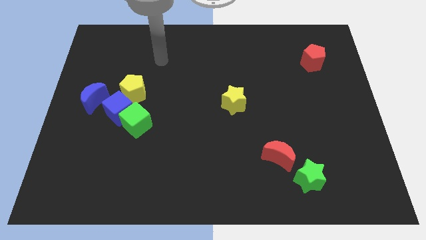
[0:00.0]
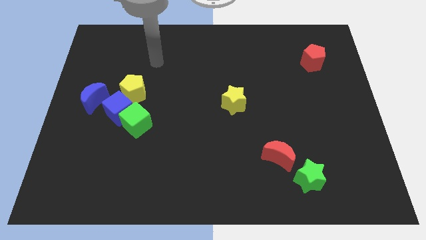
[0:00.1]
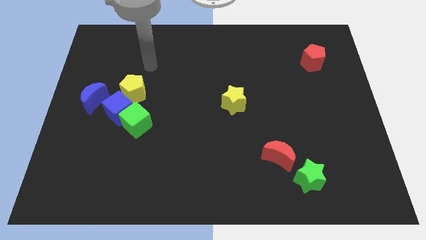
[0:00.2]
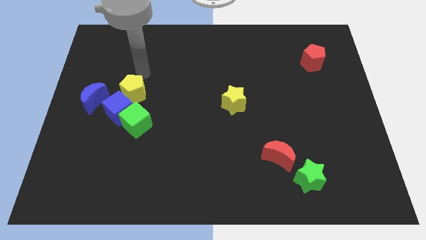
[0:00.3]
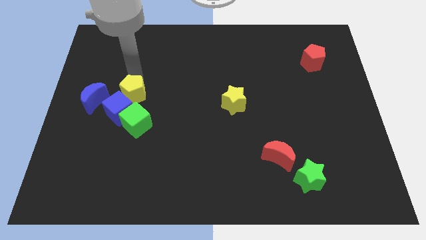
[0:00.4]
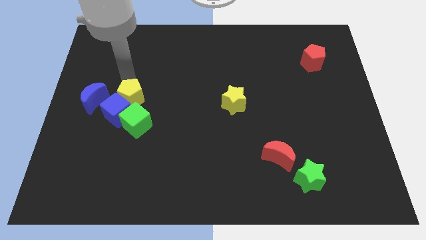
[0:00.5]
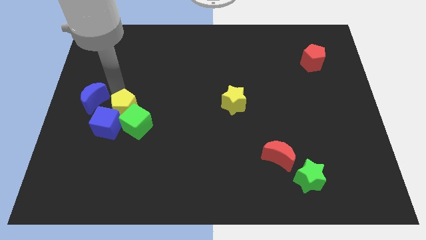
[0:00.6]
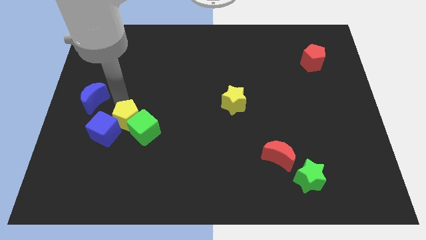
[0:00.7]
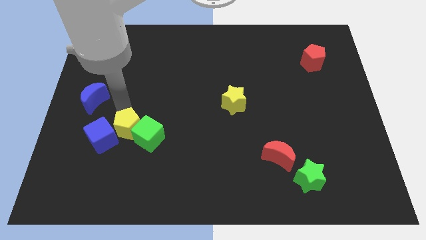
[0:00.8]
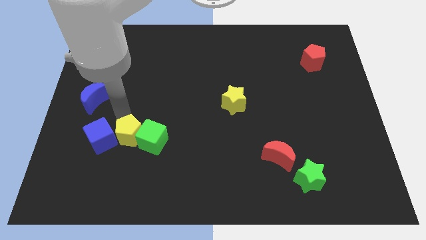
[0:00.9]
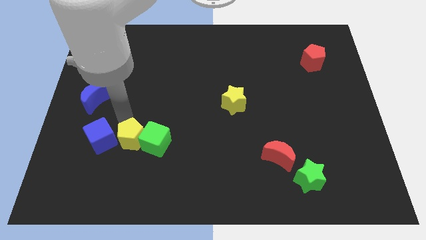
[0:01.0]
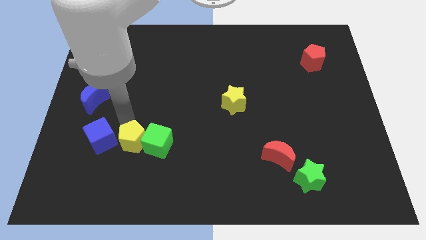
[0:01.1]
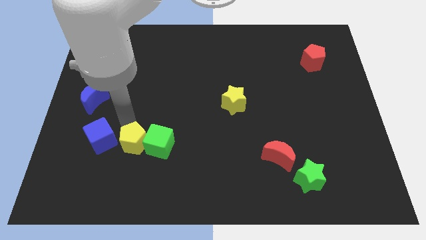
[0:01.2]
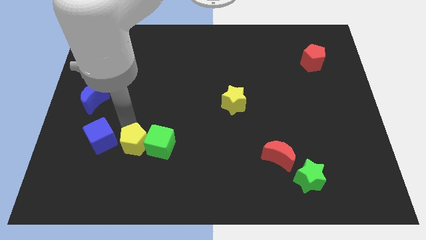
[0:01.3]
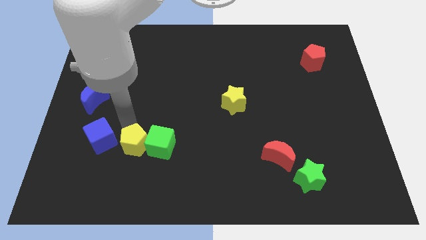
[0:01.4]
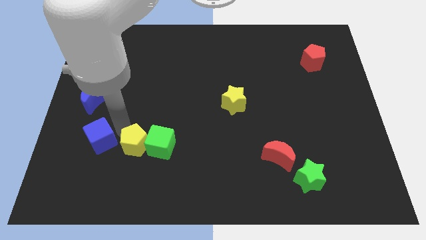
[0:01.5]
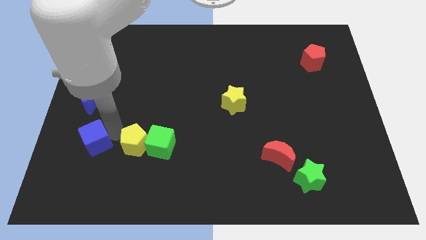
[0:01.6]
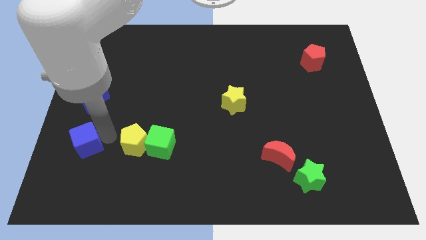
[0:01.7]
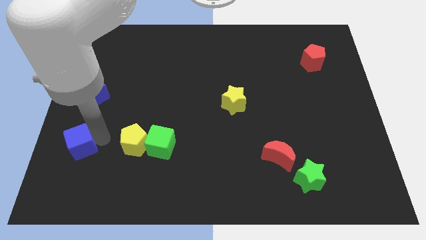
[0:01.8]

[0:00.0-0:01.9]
separate the blue cube from the clump

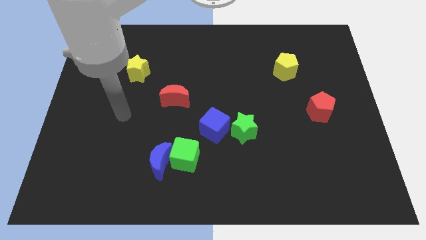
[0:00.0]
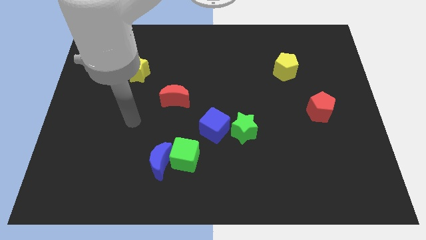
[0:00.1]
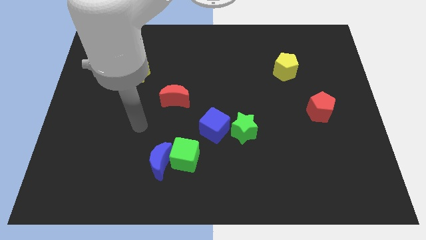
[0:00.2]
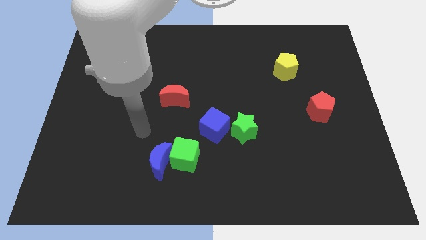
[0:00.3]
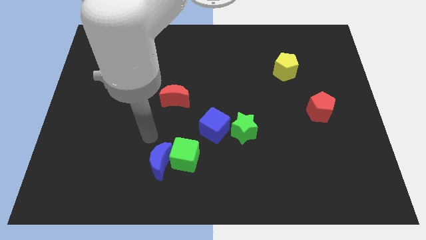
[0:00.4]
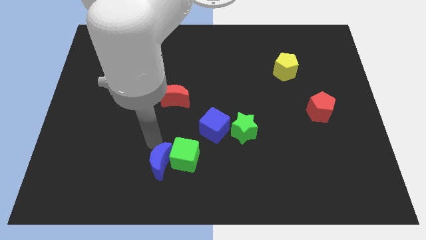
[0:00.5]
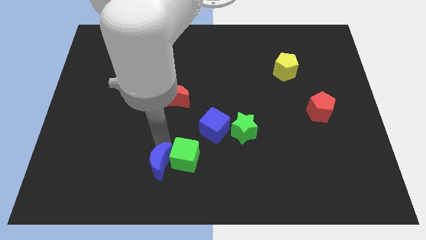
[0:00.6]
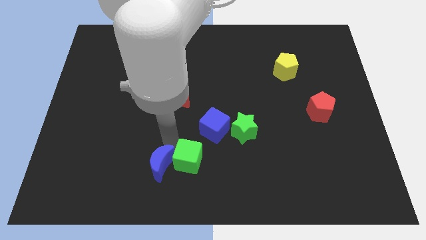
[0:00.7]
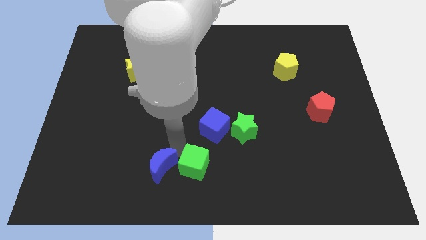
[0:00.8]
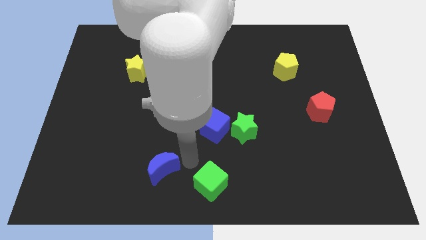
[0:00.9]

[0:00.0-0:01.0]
separate the blue moon from the green cube

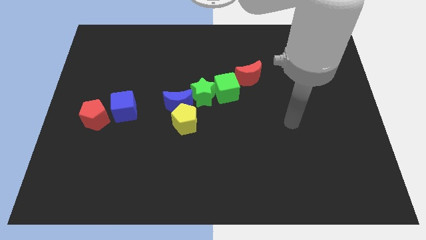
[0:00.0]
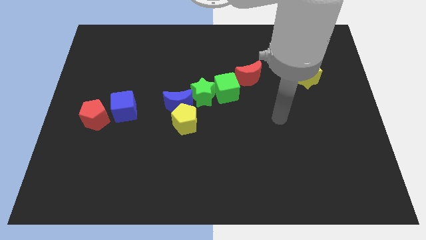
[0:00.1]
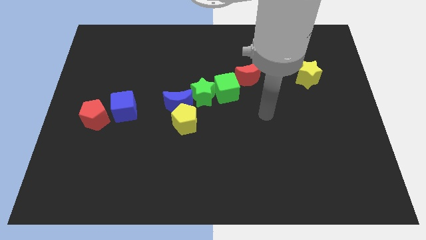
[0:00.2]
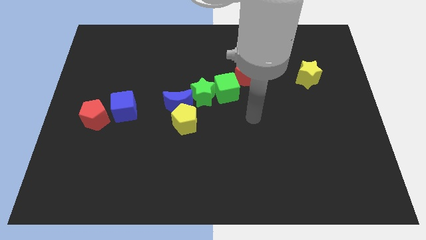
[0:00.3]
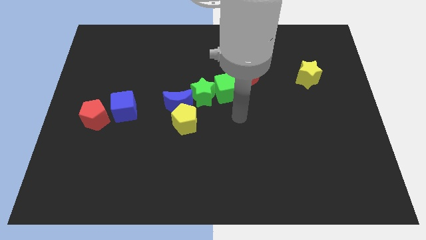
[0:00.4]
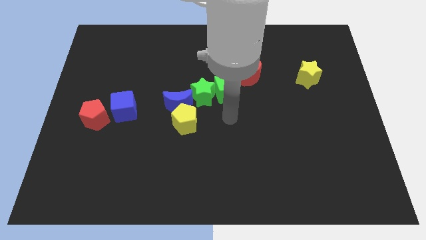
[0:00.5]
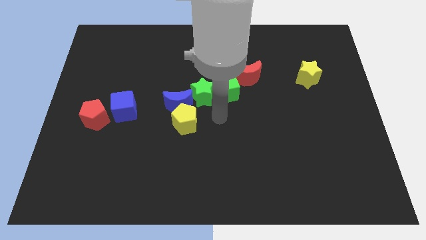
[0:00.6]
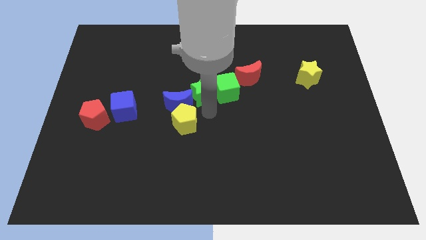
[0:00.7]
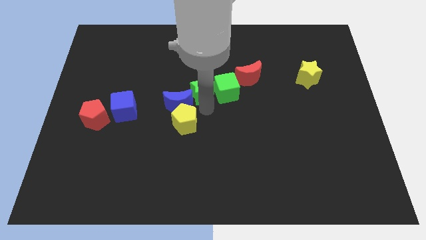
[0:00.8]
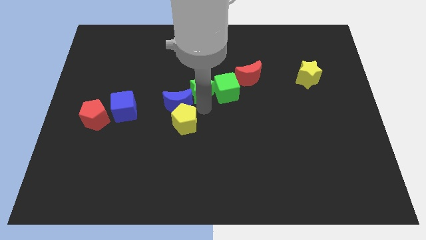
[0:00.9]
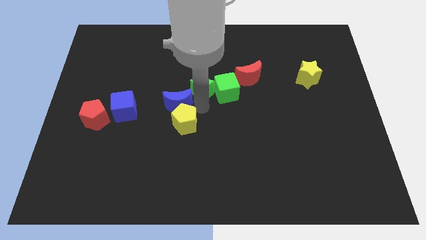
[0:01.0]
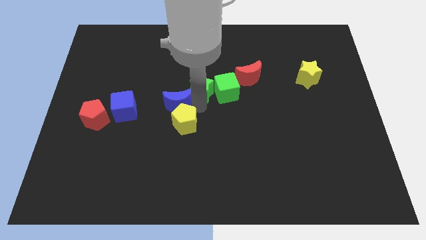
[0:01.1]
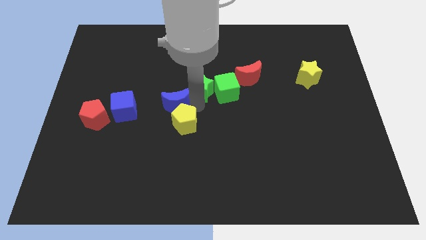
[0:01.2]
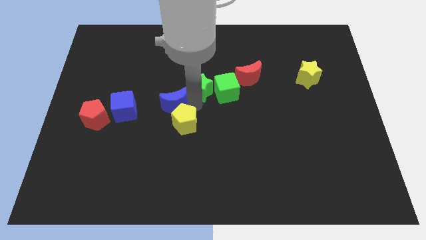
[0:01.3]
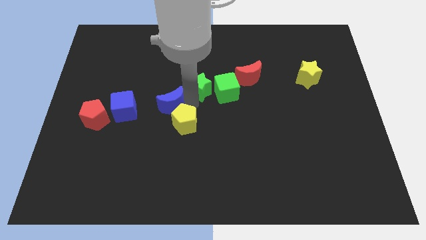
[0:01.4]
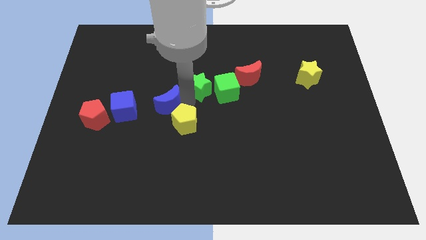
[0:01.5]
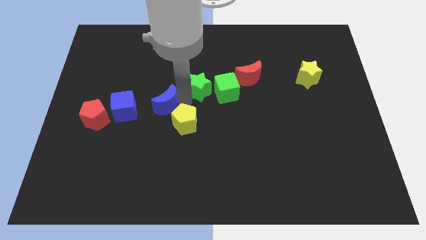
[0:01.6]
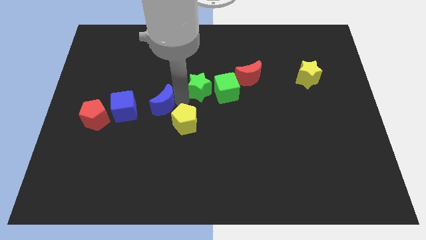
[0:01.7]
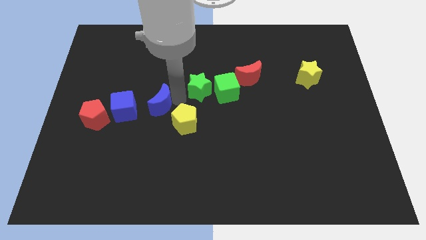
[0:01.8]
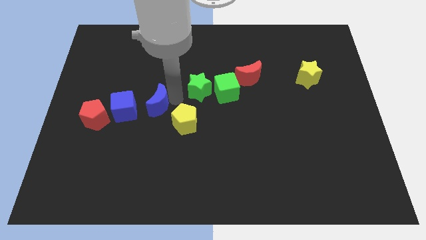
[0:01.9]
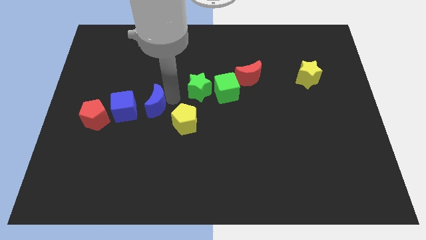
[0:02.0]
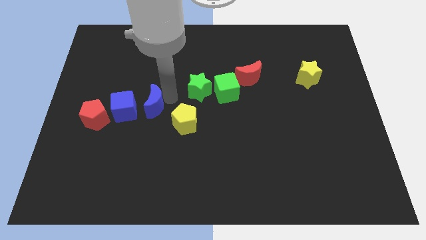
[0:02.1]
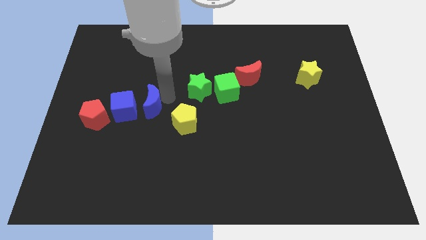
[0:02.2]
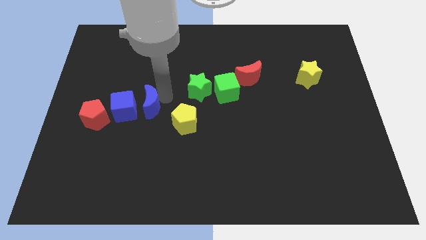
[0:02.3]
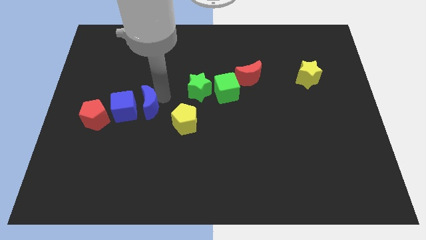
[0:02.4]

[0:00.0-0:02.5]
separate the blue moon from the yellow pentagon and green star

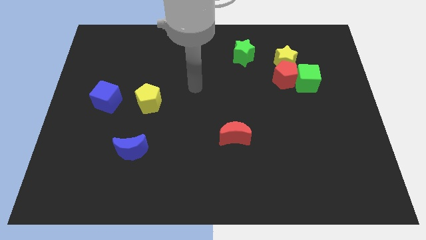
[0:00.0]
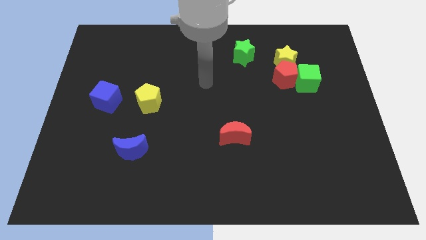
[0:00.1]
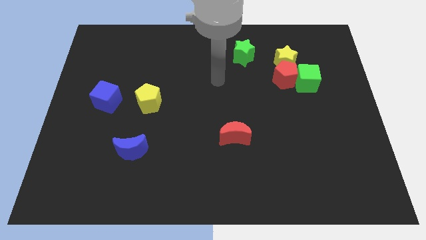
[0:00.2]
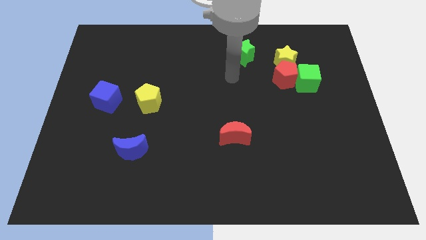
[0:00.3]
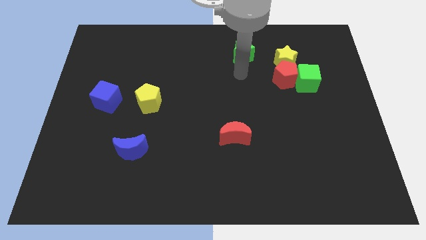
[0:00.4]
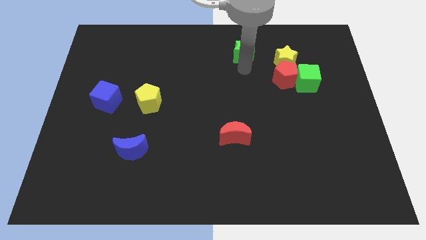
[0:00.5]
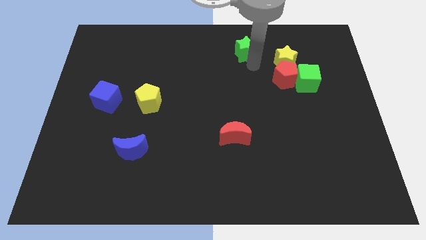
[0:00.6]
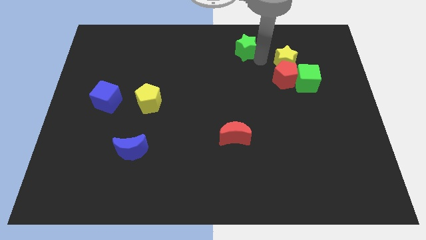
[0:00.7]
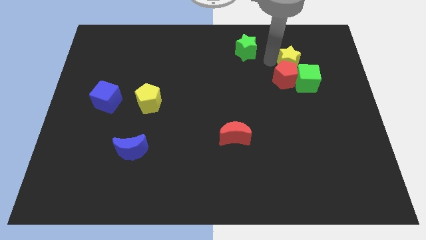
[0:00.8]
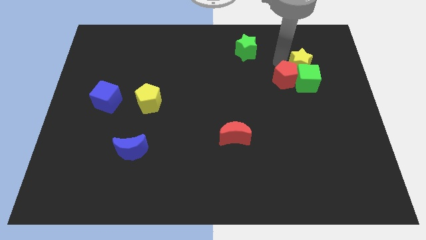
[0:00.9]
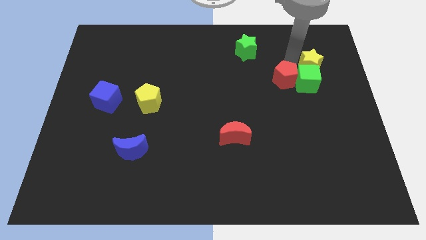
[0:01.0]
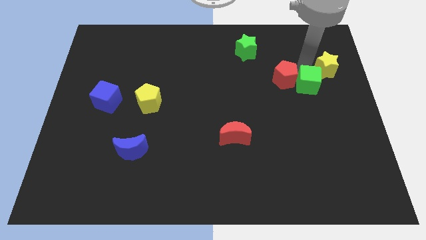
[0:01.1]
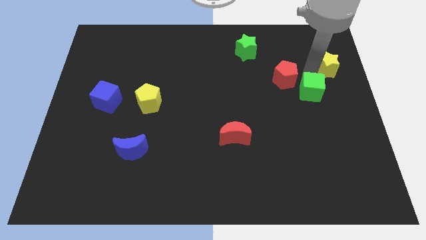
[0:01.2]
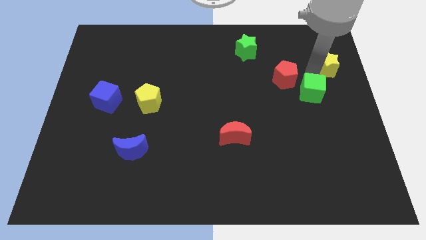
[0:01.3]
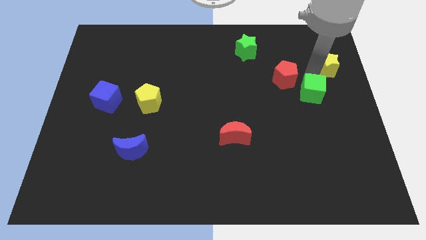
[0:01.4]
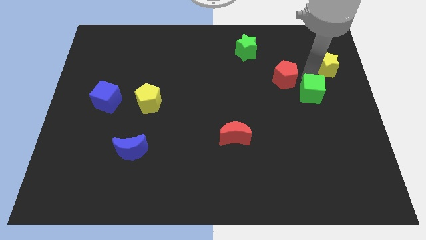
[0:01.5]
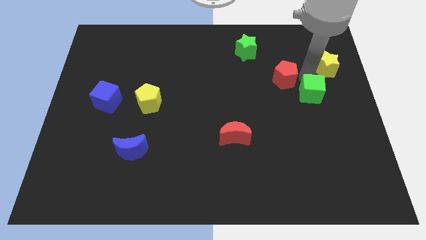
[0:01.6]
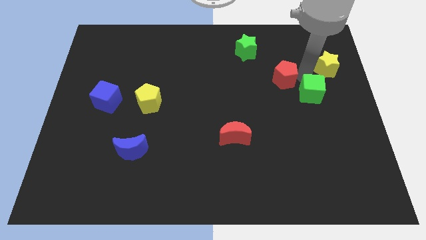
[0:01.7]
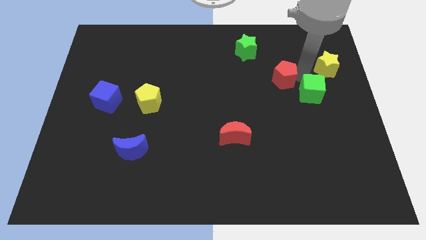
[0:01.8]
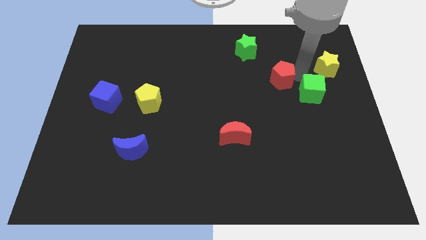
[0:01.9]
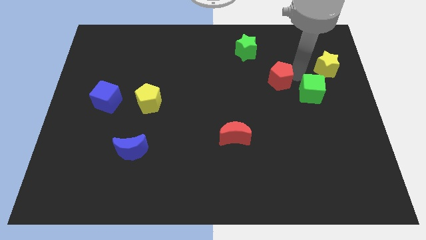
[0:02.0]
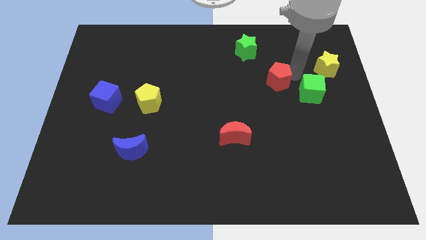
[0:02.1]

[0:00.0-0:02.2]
separate the red pentagon from the green cube and yellow star

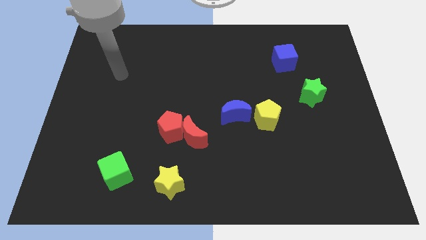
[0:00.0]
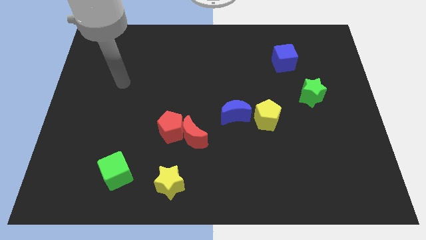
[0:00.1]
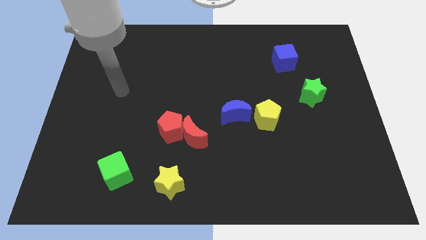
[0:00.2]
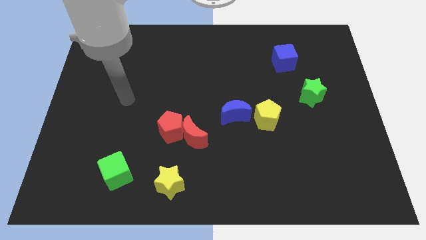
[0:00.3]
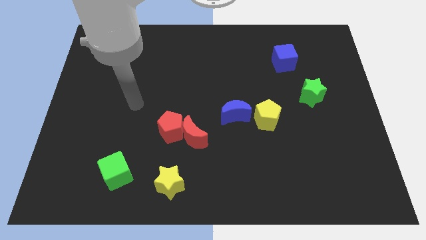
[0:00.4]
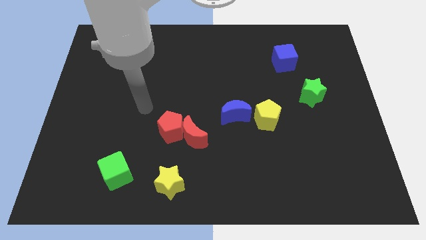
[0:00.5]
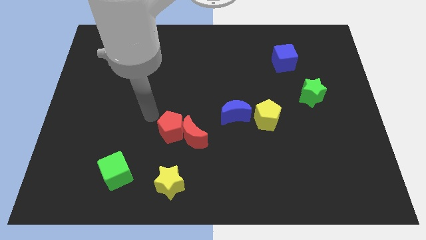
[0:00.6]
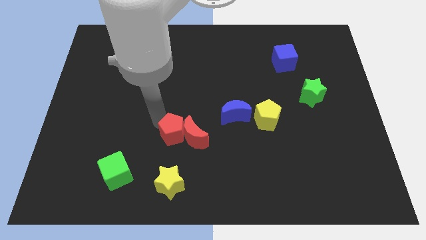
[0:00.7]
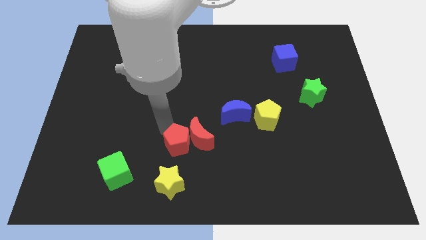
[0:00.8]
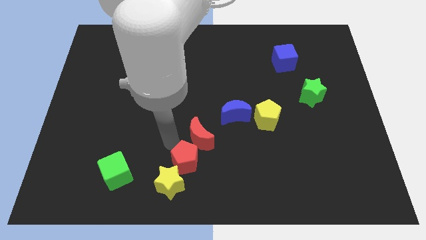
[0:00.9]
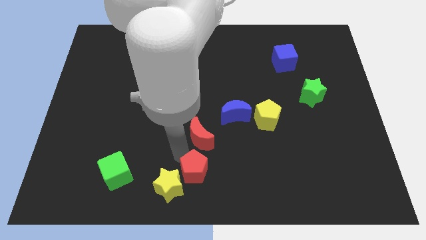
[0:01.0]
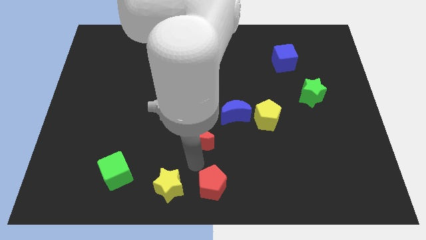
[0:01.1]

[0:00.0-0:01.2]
move the red moon away from the red pentagon

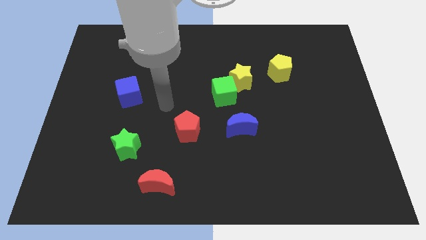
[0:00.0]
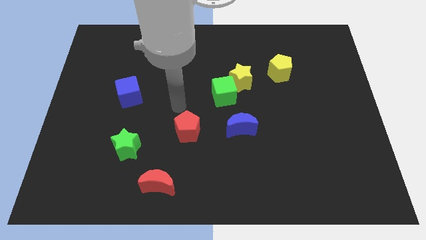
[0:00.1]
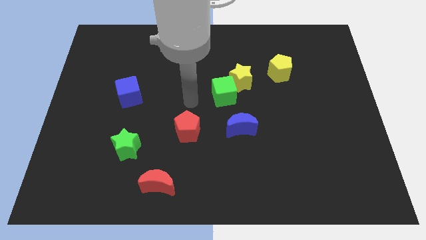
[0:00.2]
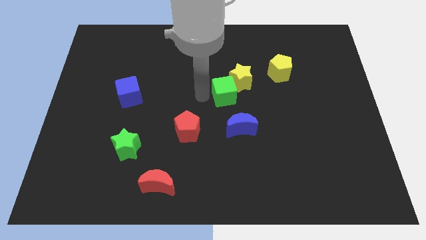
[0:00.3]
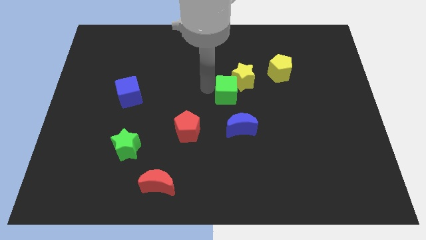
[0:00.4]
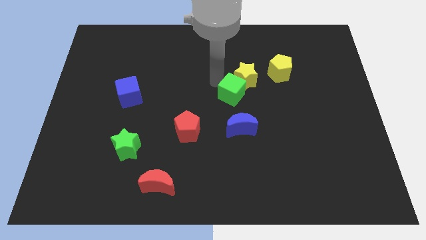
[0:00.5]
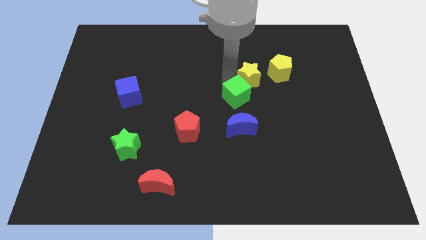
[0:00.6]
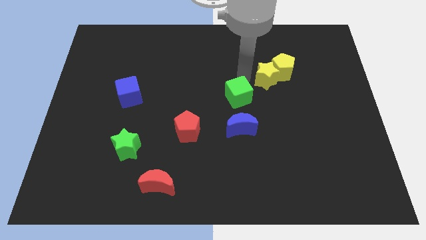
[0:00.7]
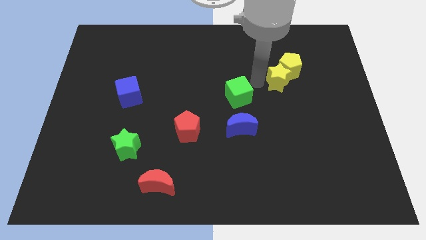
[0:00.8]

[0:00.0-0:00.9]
separate the green cube from the yellow star
